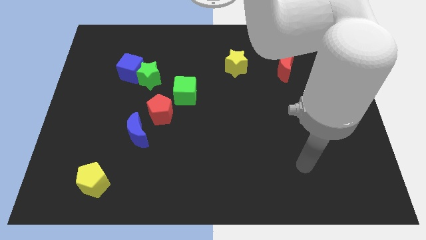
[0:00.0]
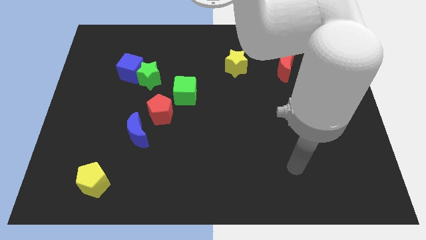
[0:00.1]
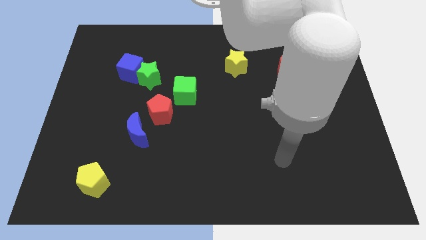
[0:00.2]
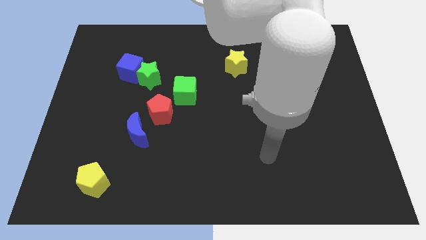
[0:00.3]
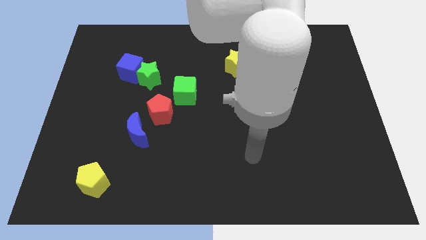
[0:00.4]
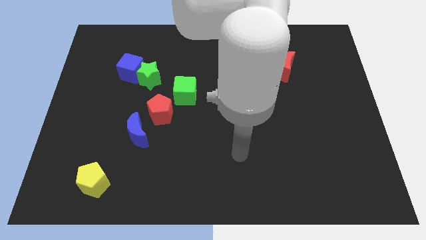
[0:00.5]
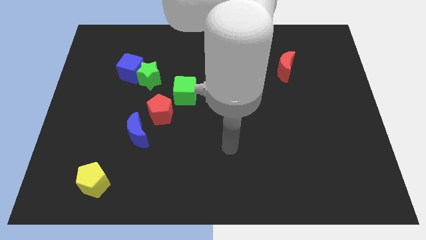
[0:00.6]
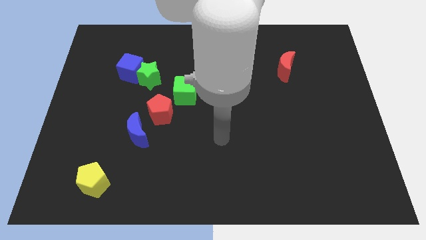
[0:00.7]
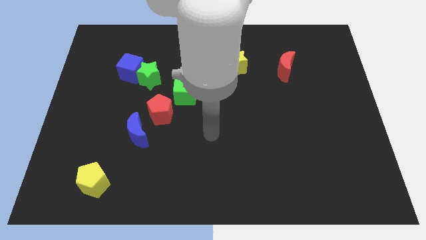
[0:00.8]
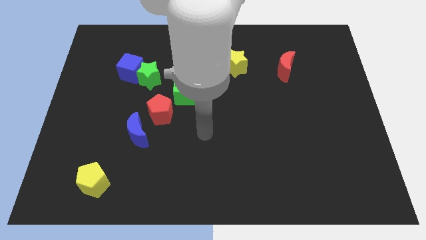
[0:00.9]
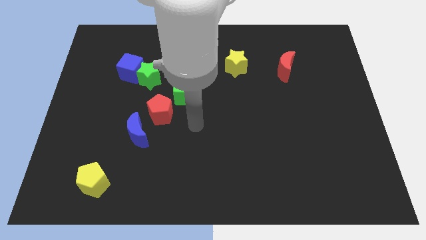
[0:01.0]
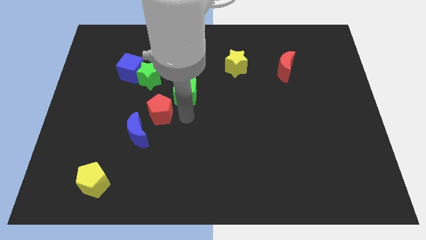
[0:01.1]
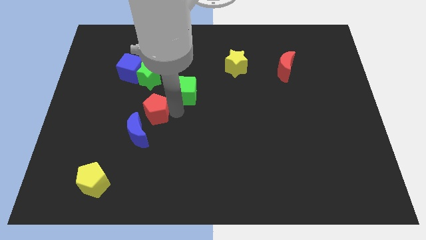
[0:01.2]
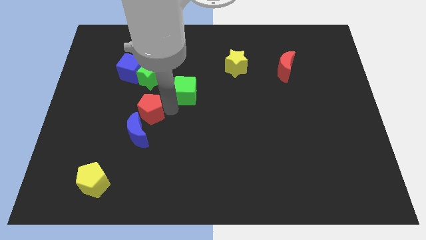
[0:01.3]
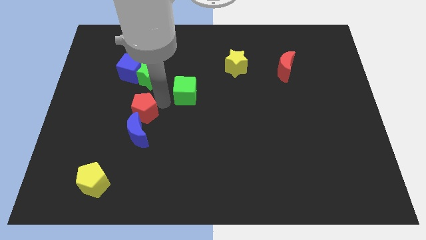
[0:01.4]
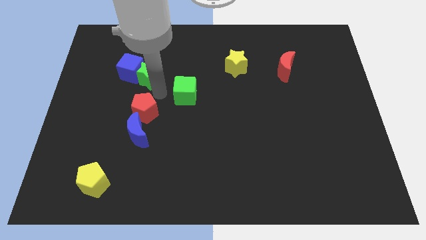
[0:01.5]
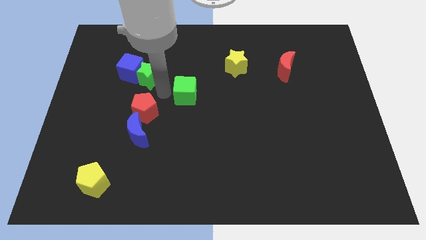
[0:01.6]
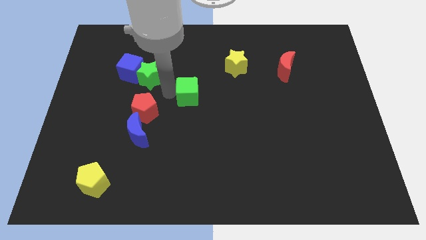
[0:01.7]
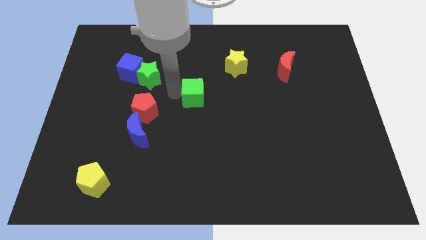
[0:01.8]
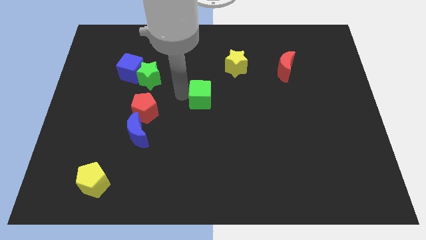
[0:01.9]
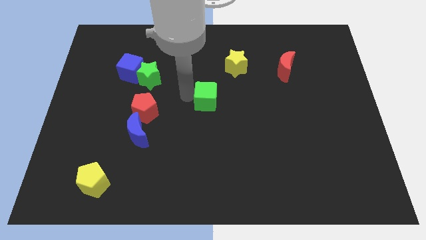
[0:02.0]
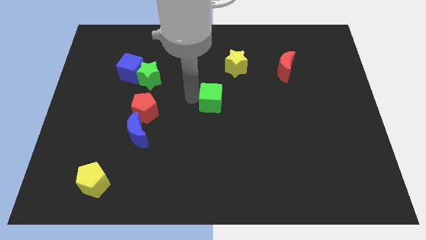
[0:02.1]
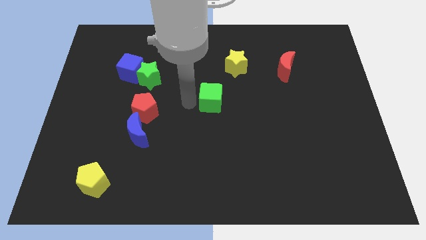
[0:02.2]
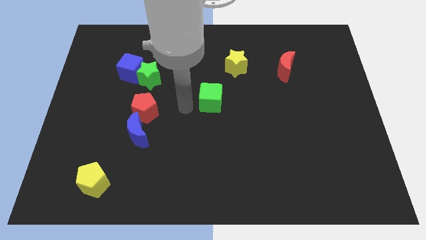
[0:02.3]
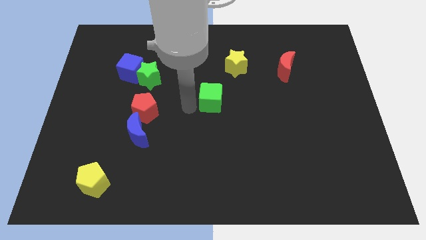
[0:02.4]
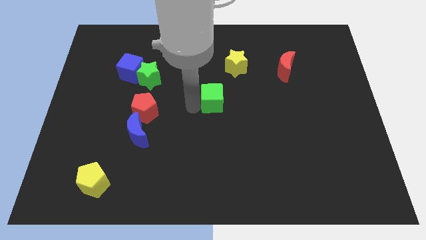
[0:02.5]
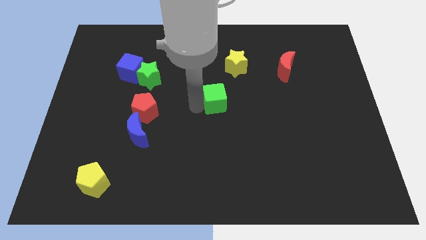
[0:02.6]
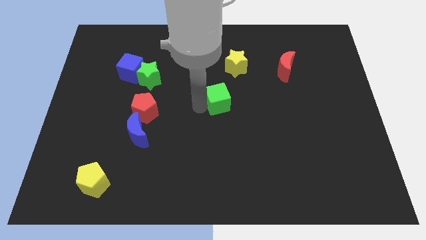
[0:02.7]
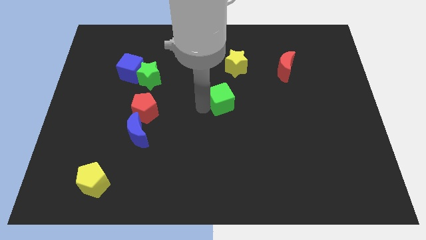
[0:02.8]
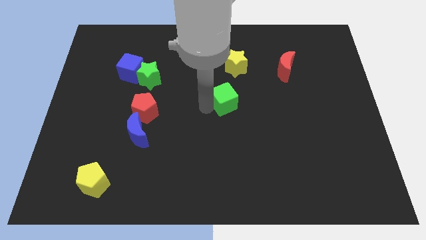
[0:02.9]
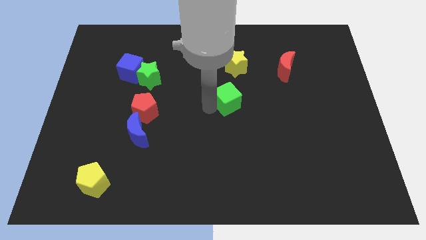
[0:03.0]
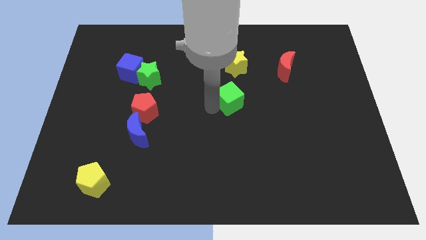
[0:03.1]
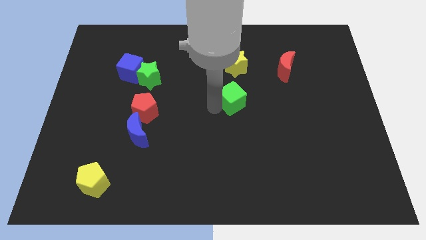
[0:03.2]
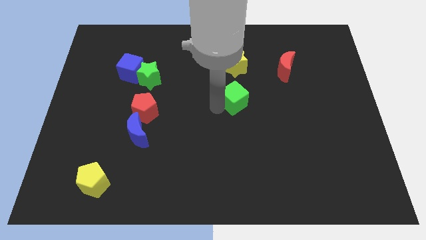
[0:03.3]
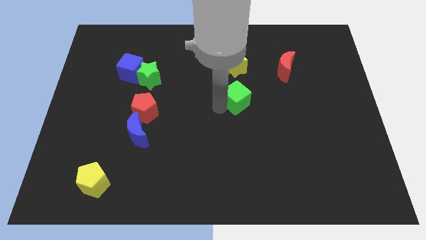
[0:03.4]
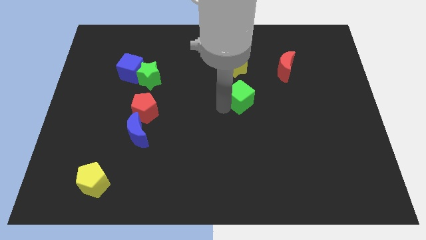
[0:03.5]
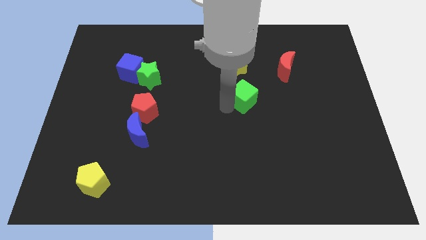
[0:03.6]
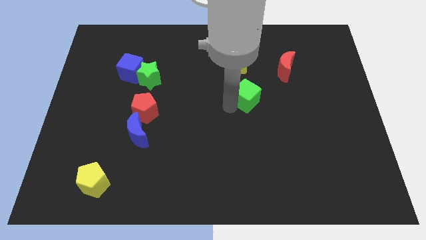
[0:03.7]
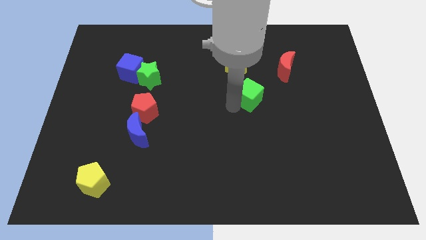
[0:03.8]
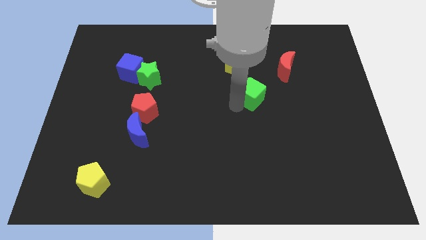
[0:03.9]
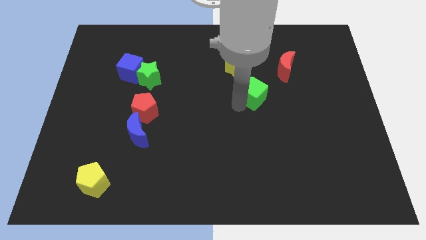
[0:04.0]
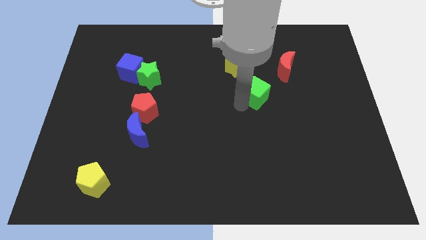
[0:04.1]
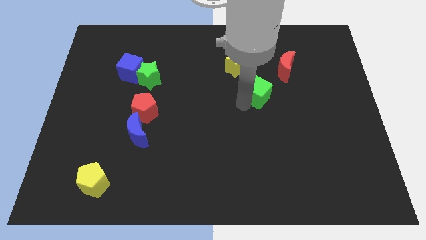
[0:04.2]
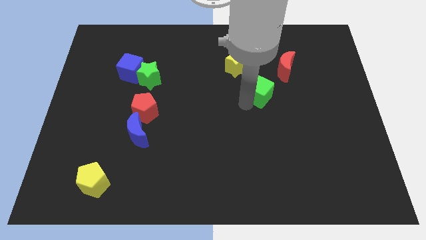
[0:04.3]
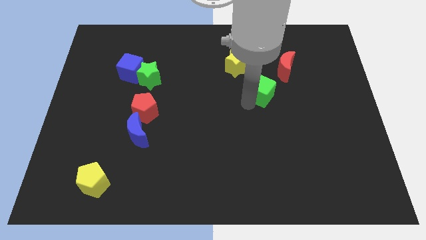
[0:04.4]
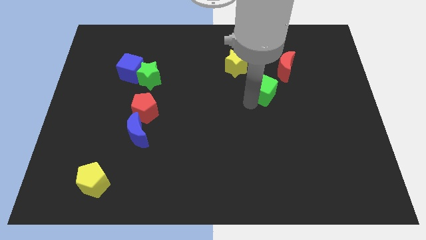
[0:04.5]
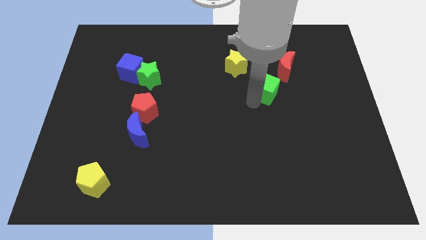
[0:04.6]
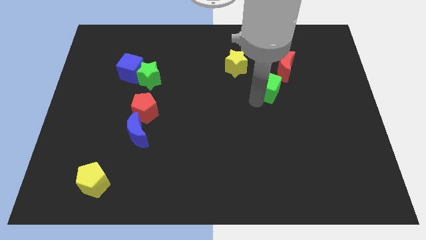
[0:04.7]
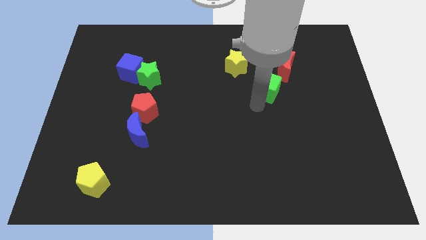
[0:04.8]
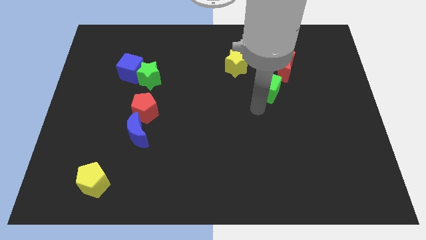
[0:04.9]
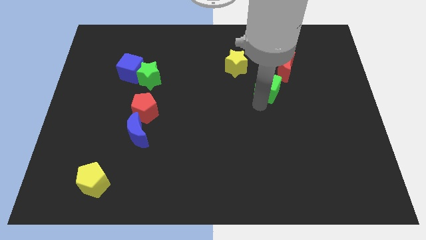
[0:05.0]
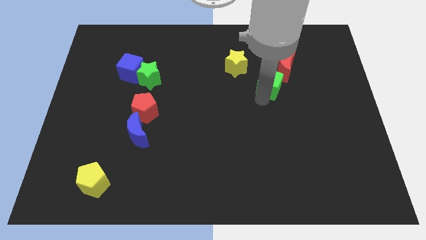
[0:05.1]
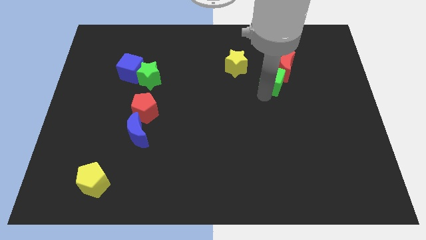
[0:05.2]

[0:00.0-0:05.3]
push the green cube to the red moon

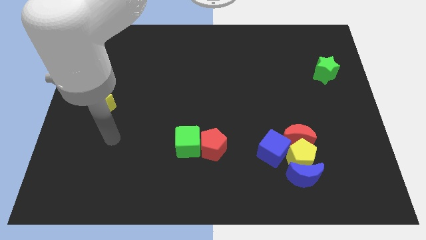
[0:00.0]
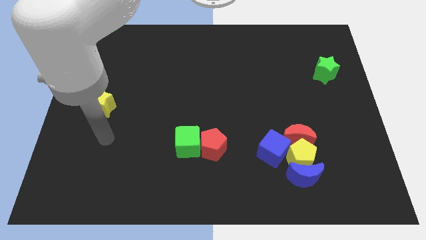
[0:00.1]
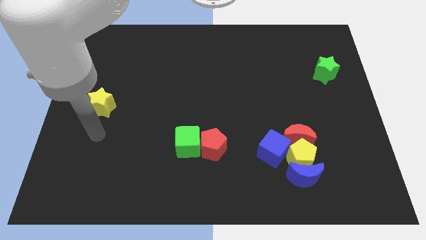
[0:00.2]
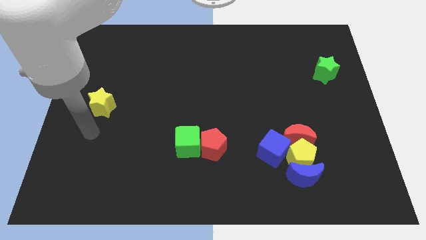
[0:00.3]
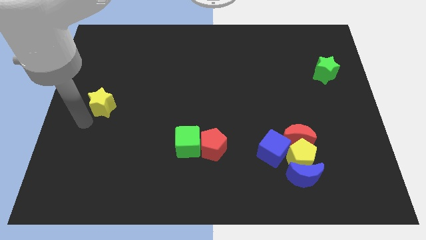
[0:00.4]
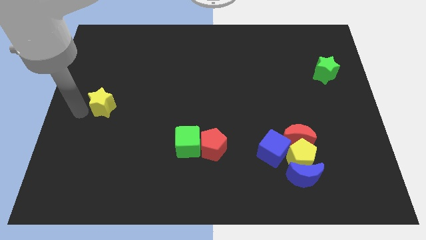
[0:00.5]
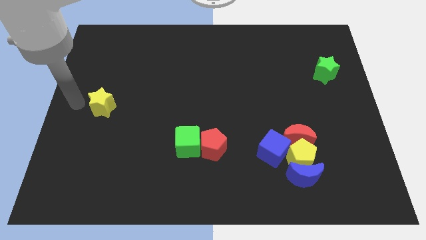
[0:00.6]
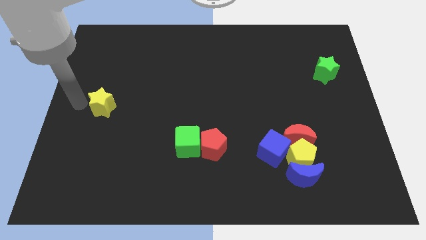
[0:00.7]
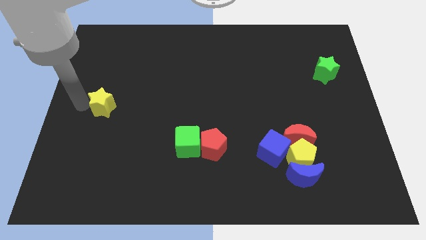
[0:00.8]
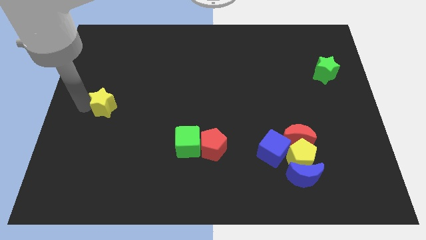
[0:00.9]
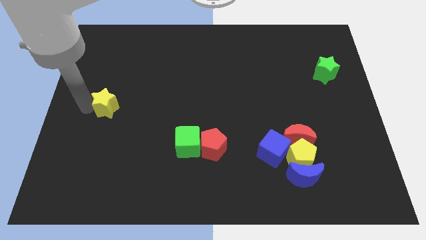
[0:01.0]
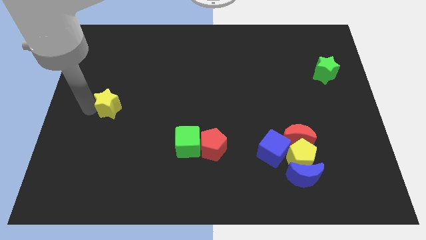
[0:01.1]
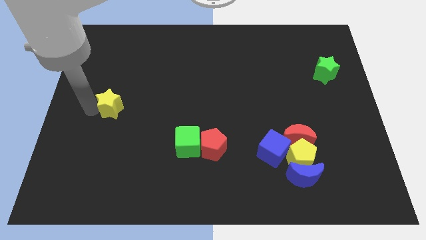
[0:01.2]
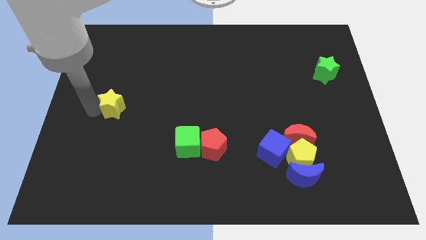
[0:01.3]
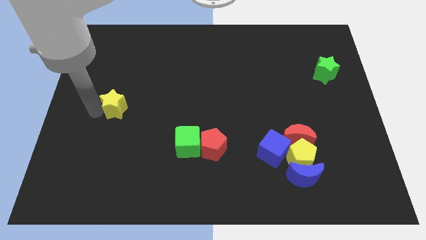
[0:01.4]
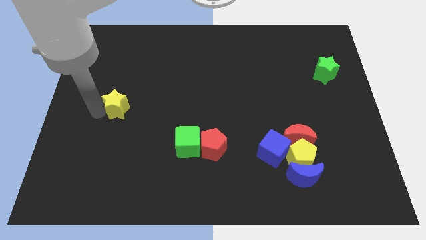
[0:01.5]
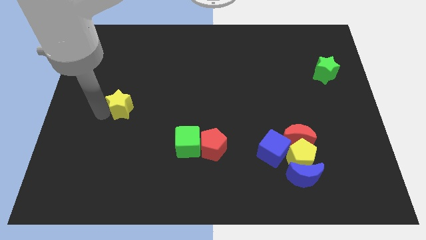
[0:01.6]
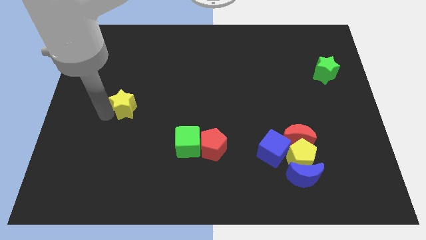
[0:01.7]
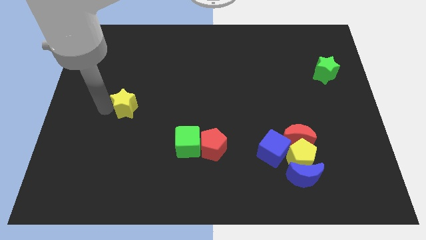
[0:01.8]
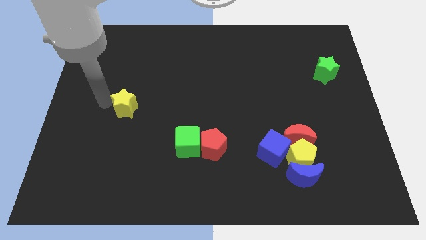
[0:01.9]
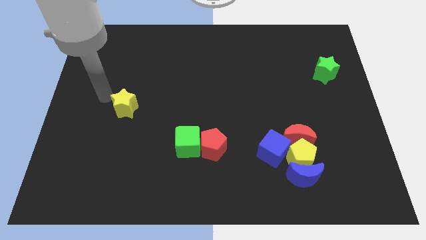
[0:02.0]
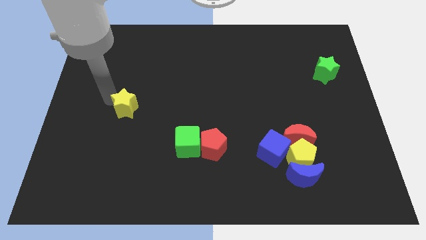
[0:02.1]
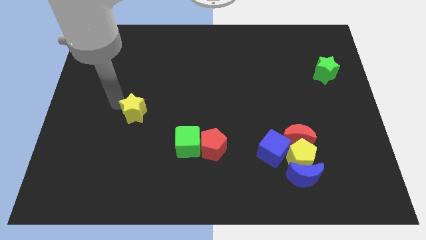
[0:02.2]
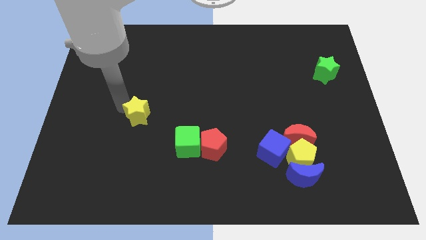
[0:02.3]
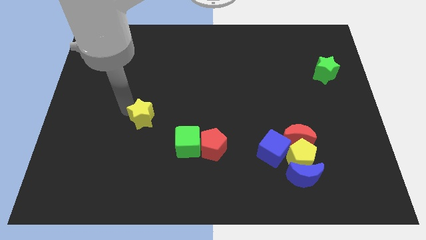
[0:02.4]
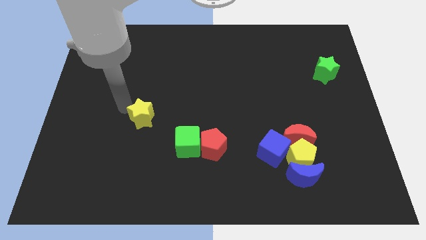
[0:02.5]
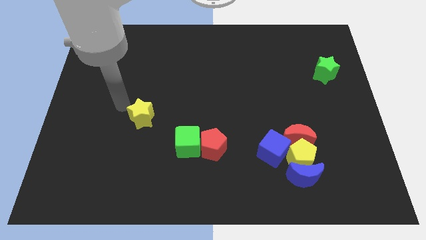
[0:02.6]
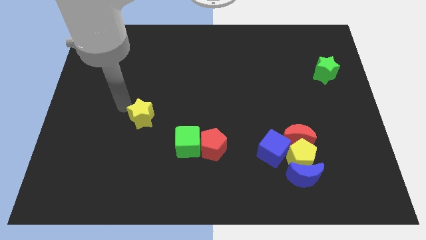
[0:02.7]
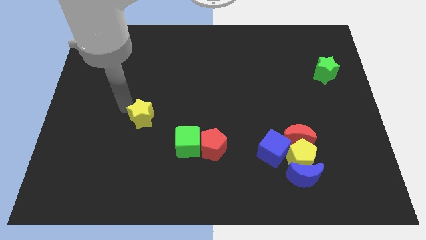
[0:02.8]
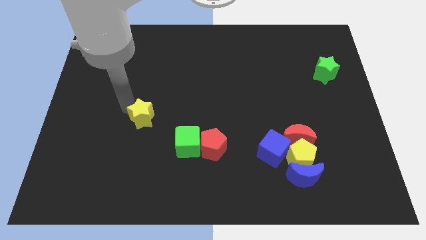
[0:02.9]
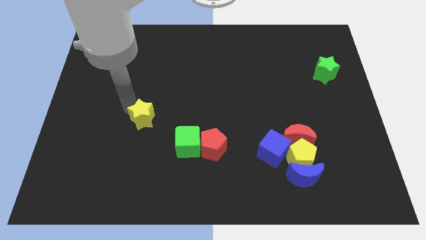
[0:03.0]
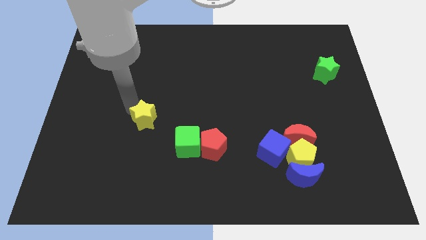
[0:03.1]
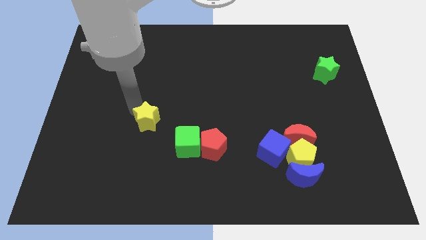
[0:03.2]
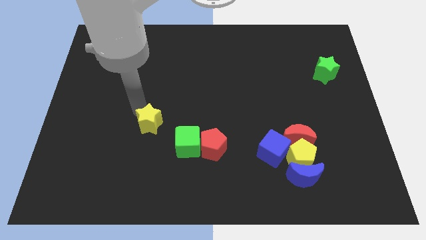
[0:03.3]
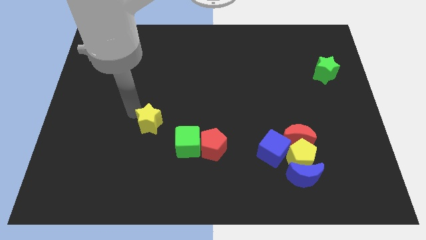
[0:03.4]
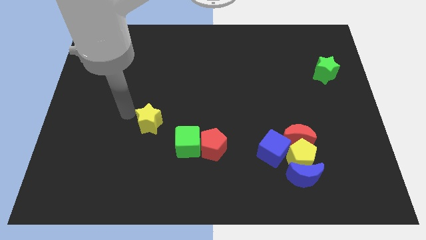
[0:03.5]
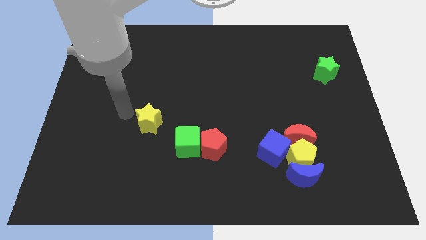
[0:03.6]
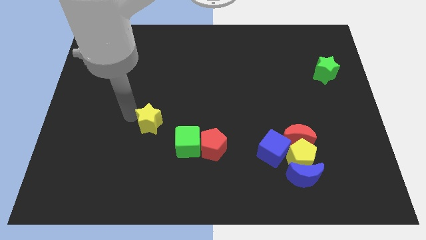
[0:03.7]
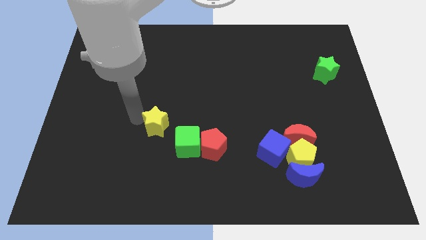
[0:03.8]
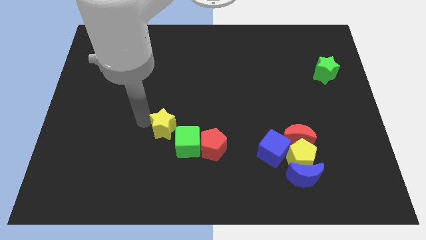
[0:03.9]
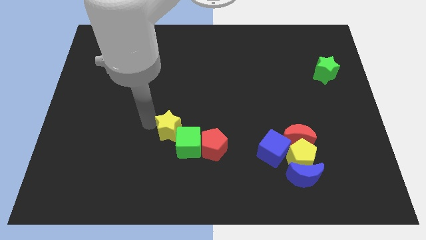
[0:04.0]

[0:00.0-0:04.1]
push the yellow star next to the green cube
